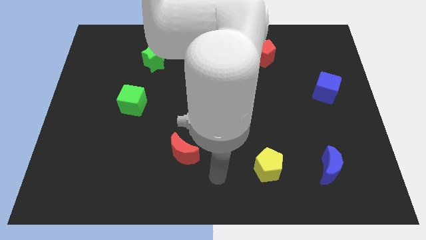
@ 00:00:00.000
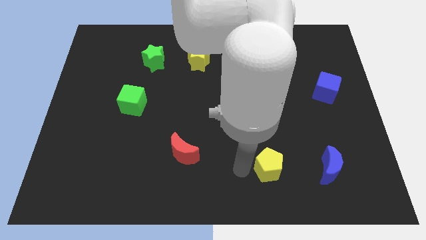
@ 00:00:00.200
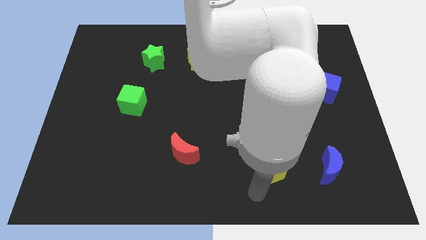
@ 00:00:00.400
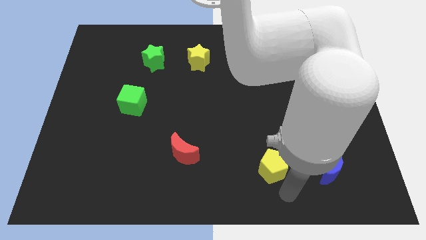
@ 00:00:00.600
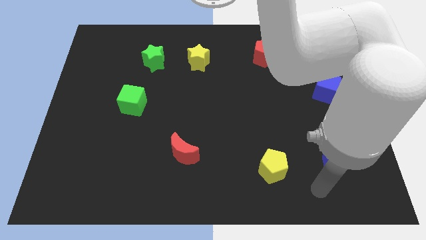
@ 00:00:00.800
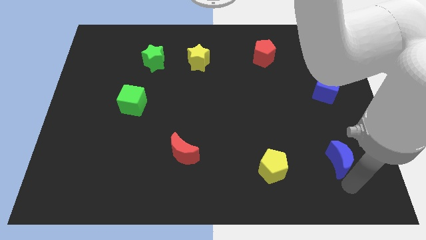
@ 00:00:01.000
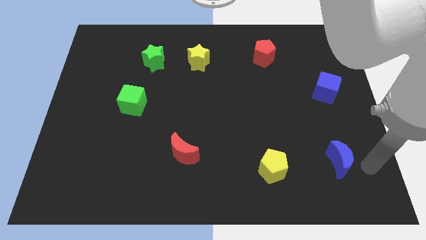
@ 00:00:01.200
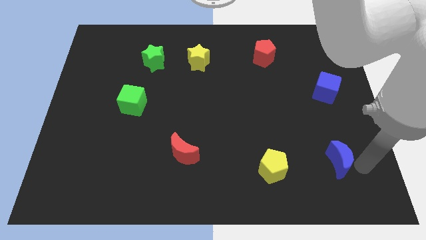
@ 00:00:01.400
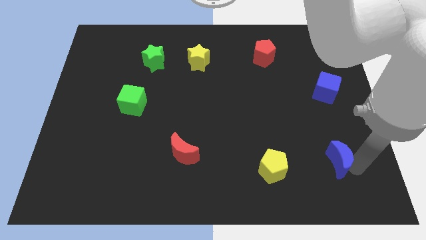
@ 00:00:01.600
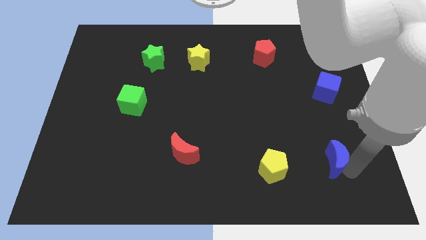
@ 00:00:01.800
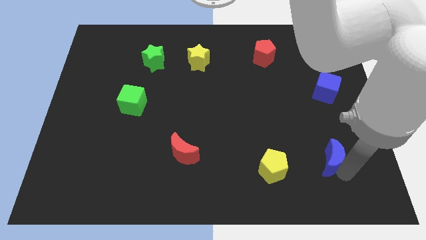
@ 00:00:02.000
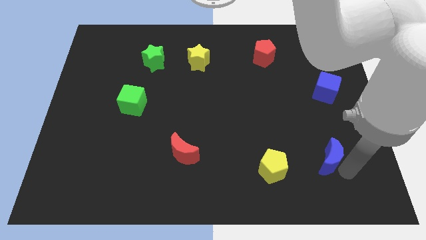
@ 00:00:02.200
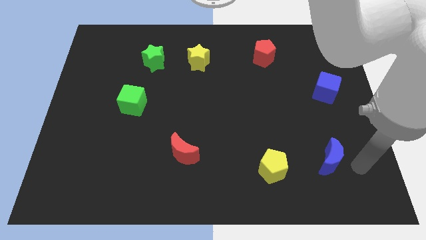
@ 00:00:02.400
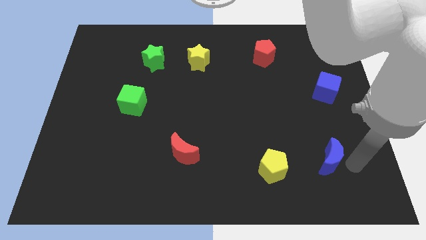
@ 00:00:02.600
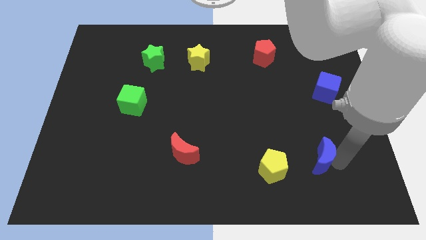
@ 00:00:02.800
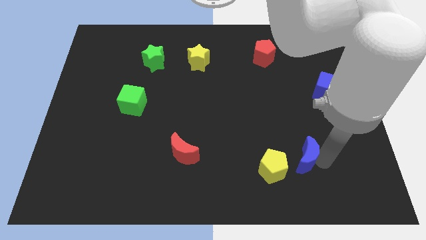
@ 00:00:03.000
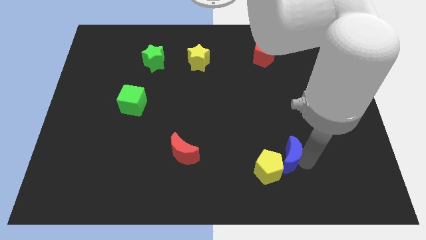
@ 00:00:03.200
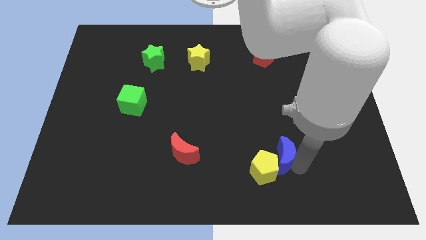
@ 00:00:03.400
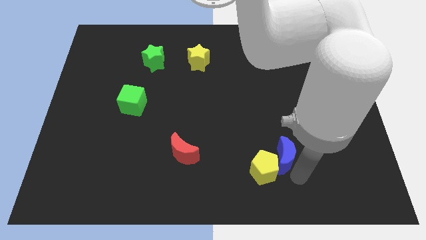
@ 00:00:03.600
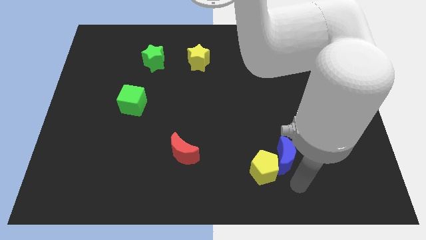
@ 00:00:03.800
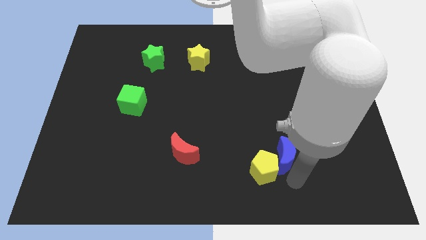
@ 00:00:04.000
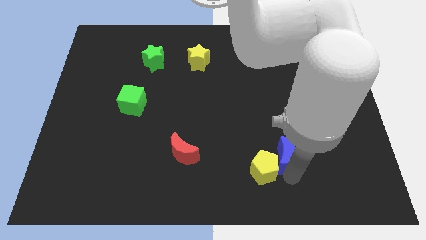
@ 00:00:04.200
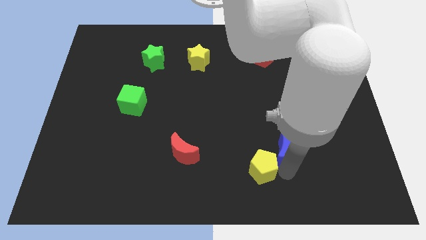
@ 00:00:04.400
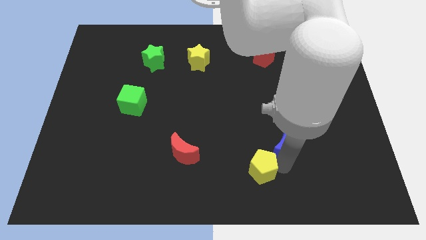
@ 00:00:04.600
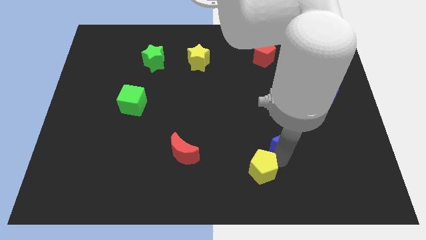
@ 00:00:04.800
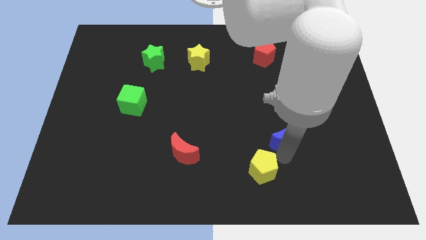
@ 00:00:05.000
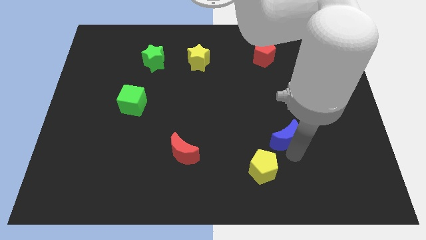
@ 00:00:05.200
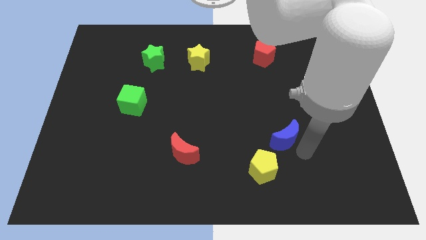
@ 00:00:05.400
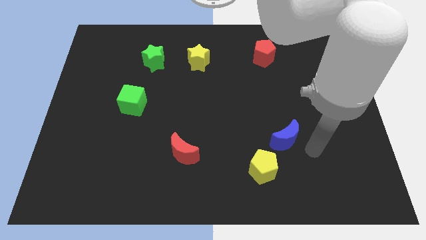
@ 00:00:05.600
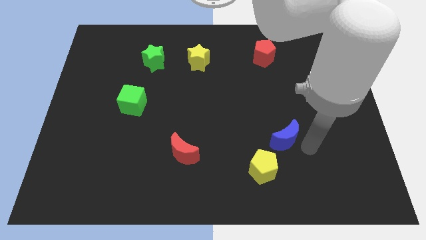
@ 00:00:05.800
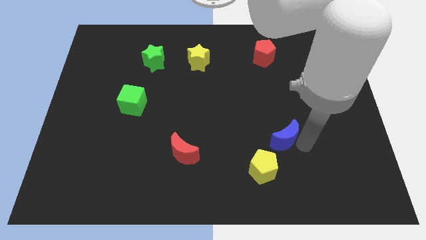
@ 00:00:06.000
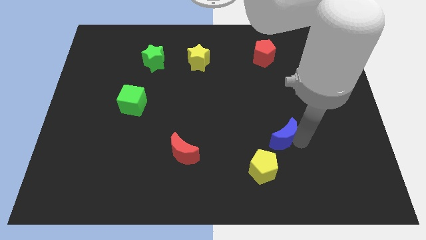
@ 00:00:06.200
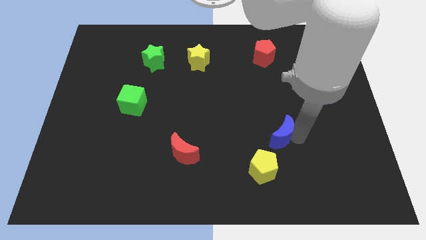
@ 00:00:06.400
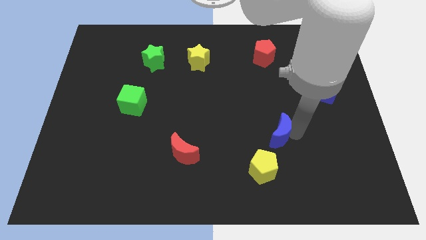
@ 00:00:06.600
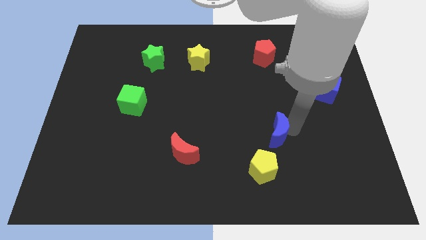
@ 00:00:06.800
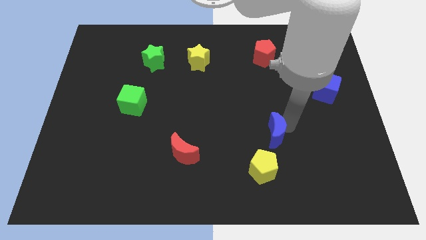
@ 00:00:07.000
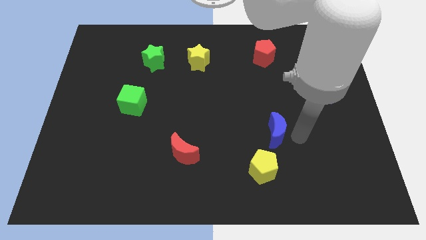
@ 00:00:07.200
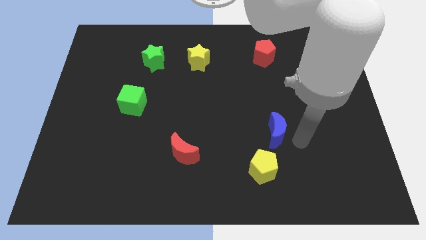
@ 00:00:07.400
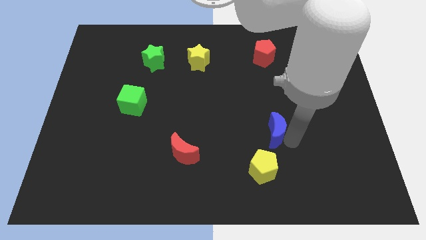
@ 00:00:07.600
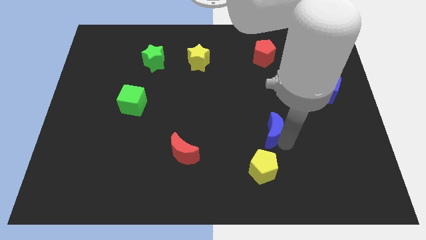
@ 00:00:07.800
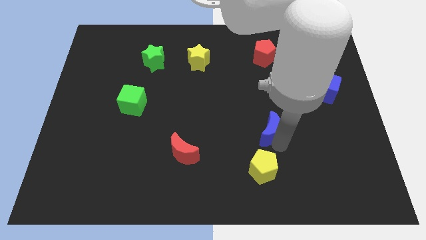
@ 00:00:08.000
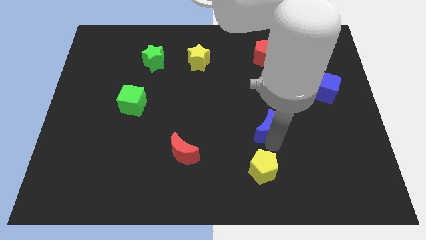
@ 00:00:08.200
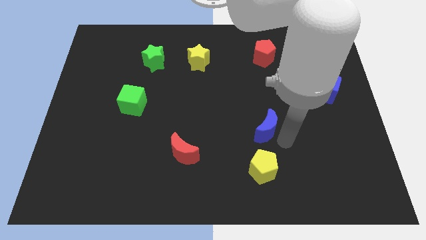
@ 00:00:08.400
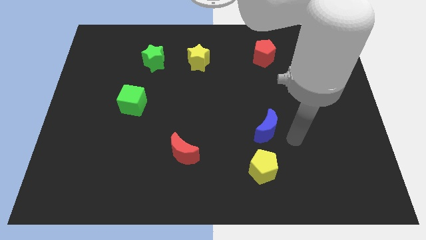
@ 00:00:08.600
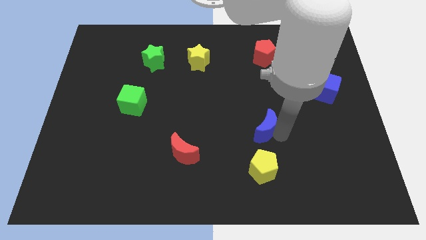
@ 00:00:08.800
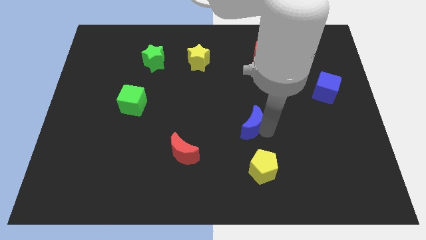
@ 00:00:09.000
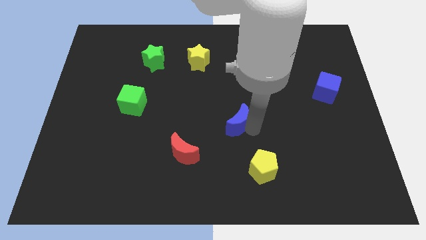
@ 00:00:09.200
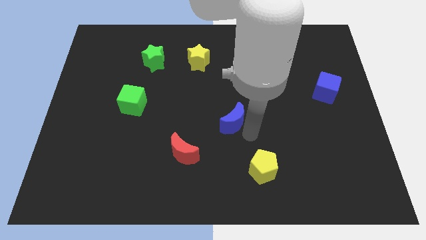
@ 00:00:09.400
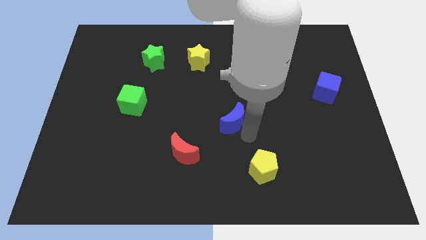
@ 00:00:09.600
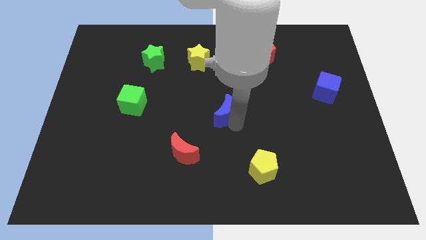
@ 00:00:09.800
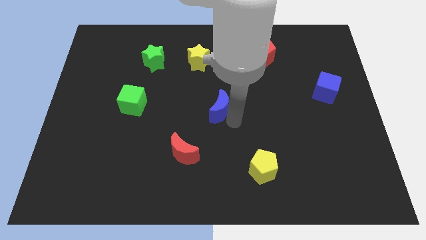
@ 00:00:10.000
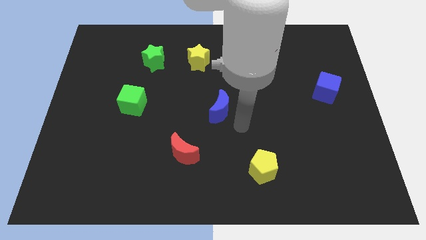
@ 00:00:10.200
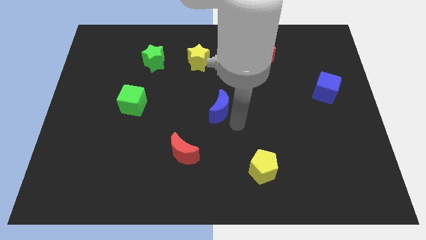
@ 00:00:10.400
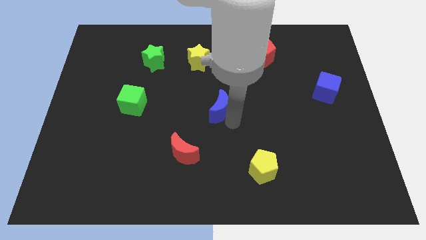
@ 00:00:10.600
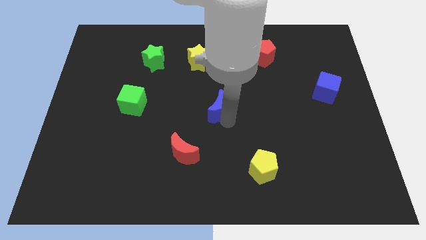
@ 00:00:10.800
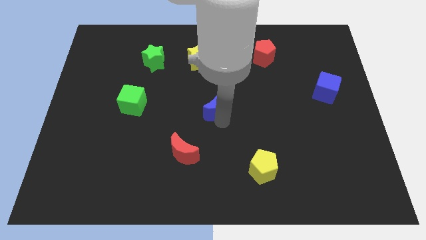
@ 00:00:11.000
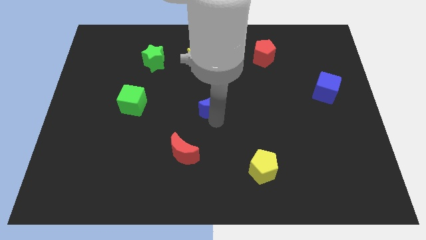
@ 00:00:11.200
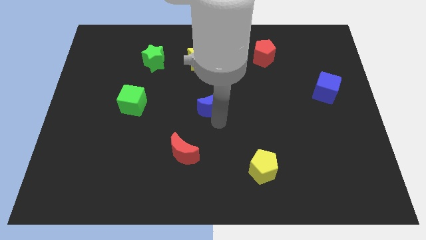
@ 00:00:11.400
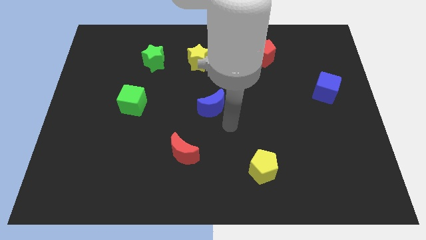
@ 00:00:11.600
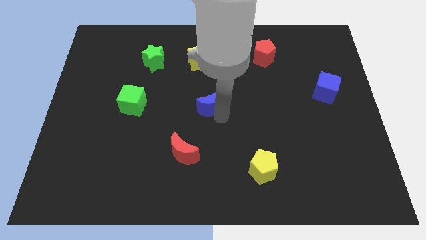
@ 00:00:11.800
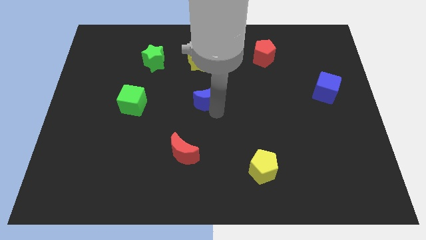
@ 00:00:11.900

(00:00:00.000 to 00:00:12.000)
move the blue moon to the bottom of the yellow star
